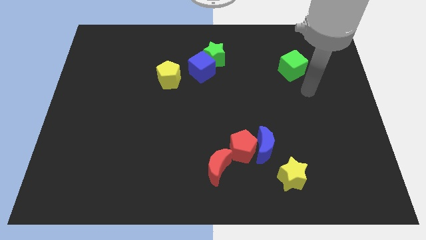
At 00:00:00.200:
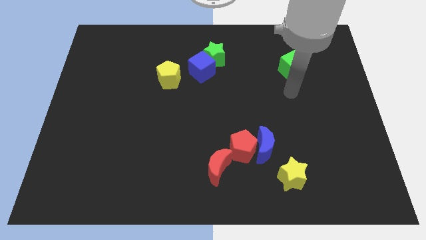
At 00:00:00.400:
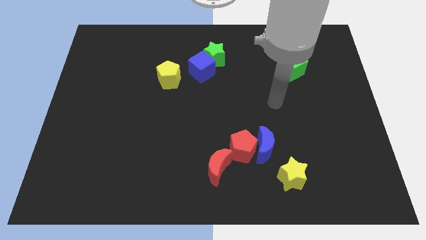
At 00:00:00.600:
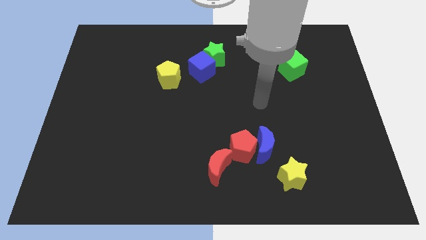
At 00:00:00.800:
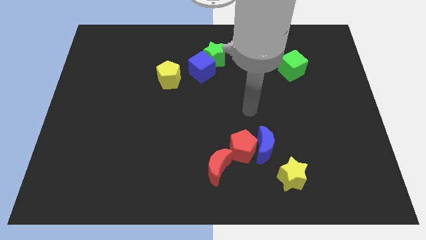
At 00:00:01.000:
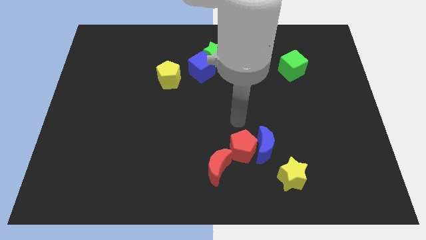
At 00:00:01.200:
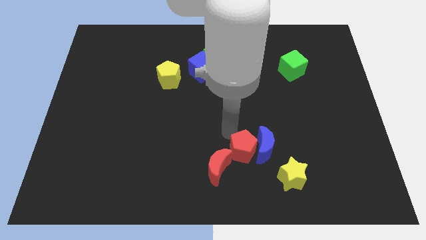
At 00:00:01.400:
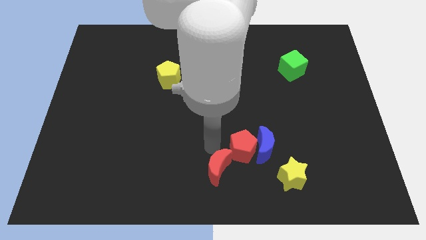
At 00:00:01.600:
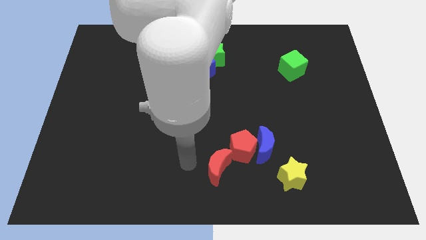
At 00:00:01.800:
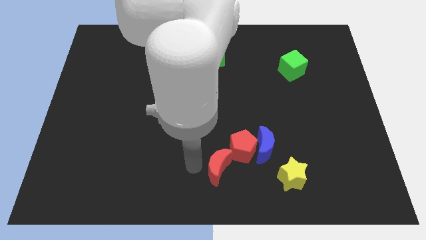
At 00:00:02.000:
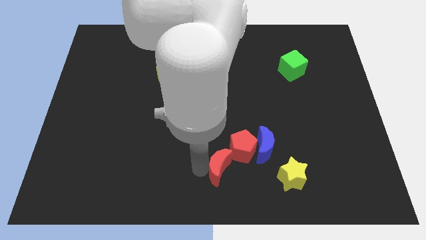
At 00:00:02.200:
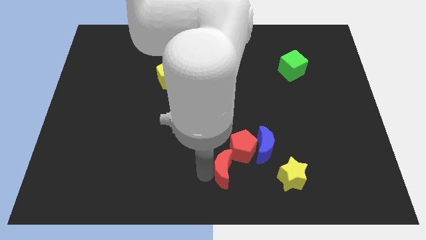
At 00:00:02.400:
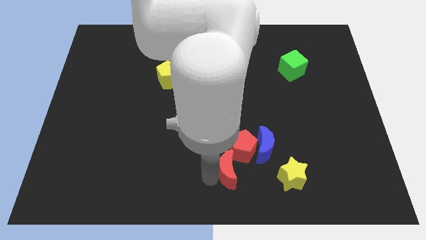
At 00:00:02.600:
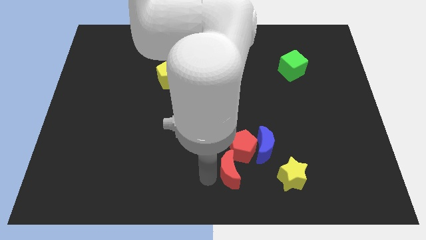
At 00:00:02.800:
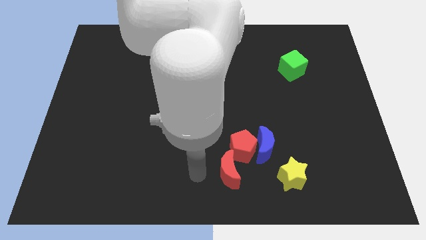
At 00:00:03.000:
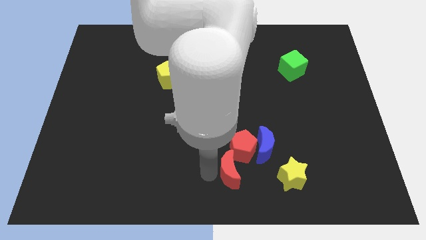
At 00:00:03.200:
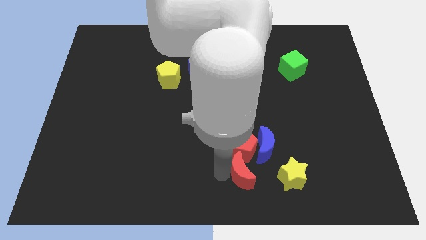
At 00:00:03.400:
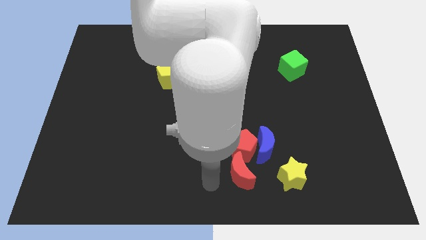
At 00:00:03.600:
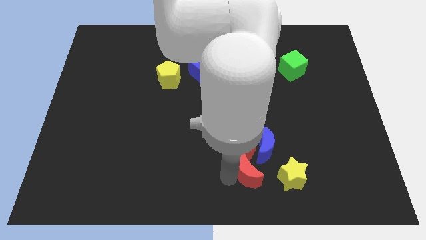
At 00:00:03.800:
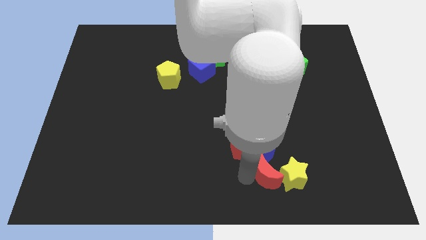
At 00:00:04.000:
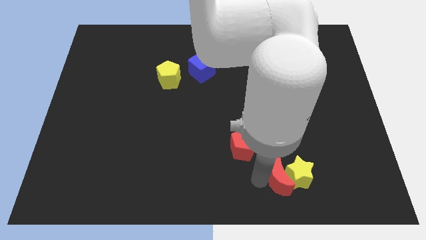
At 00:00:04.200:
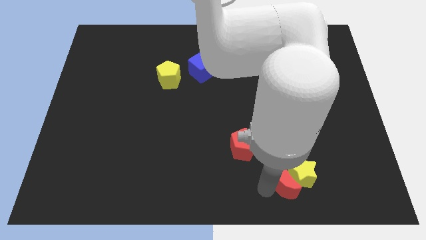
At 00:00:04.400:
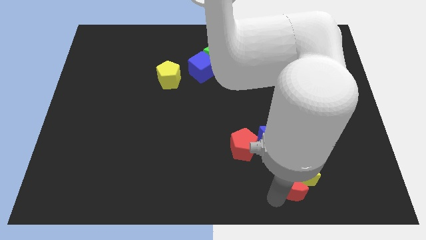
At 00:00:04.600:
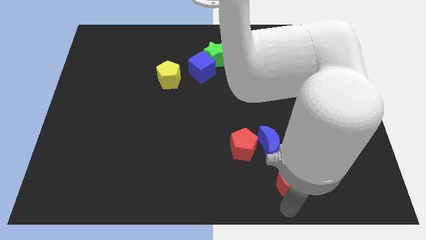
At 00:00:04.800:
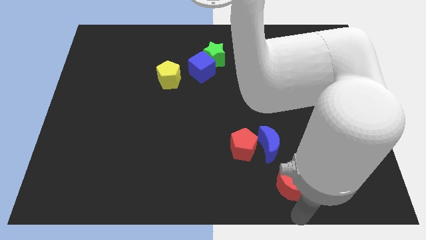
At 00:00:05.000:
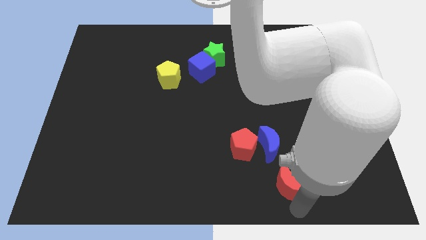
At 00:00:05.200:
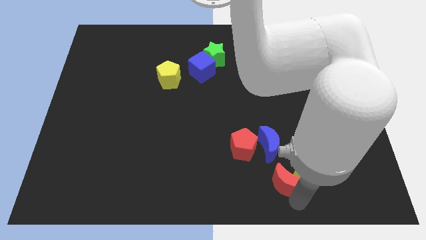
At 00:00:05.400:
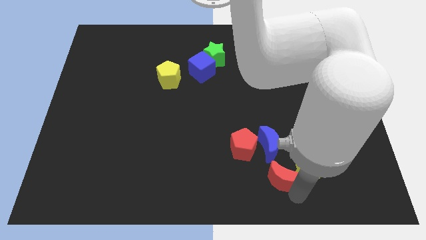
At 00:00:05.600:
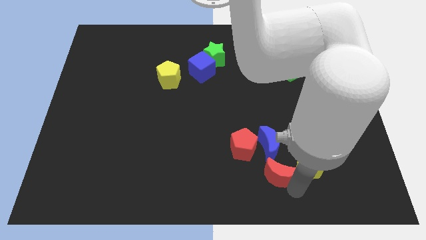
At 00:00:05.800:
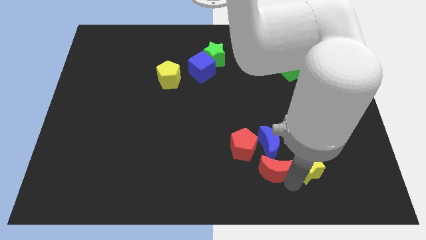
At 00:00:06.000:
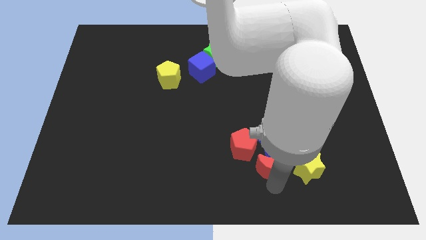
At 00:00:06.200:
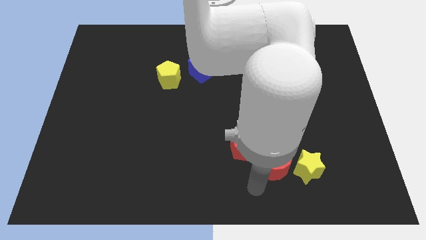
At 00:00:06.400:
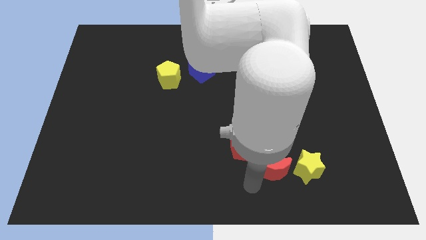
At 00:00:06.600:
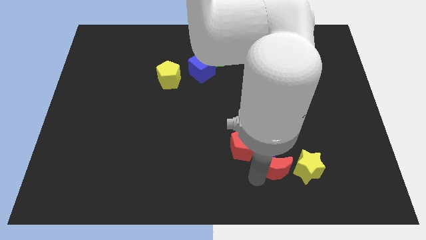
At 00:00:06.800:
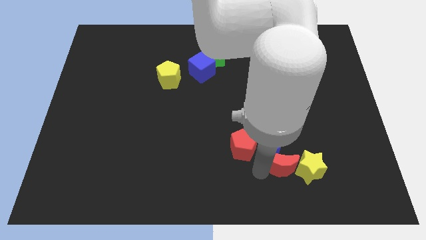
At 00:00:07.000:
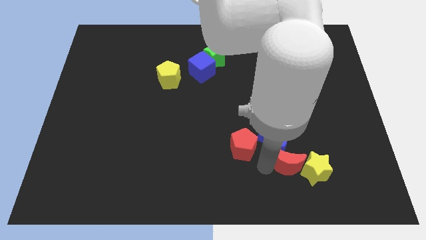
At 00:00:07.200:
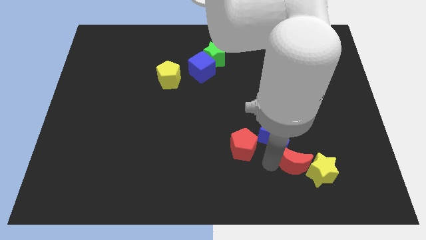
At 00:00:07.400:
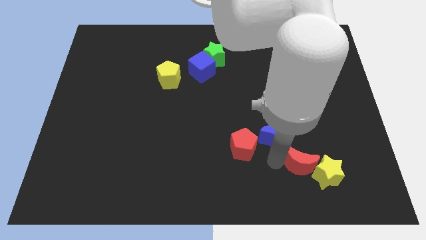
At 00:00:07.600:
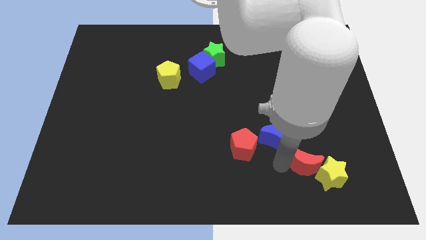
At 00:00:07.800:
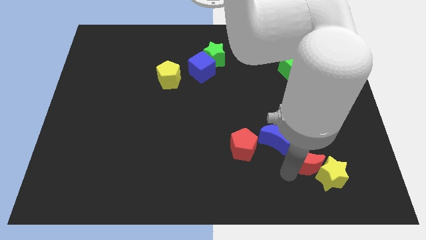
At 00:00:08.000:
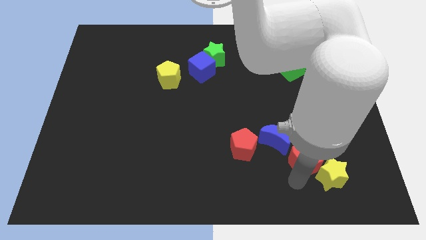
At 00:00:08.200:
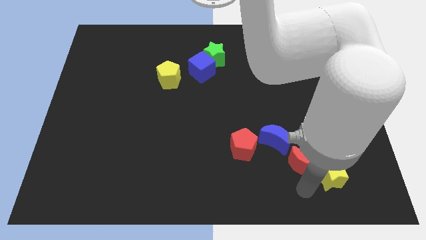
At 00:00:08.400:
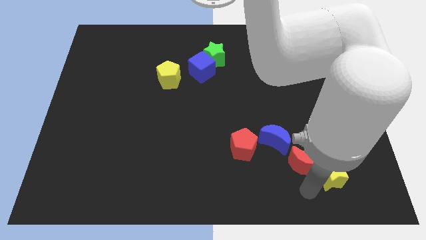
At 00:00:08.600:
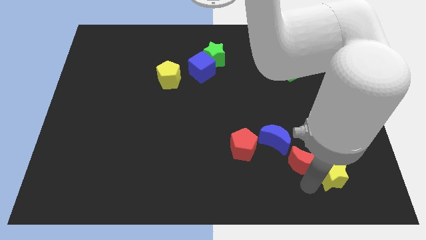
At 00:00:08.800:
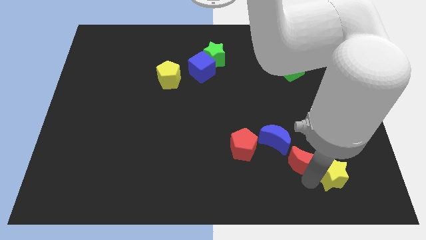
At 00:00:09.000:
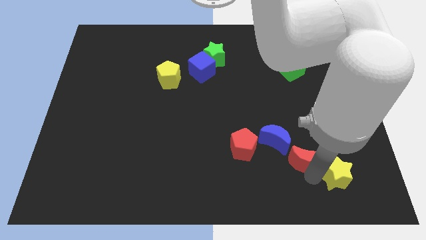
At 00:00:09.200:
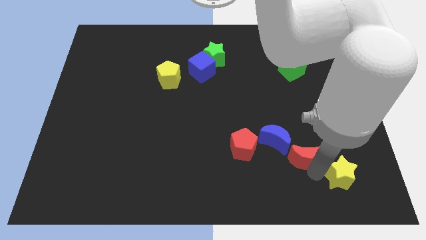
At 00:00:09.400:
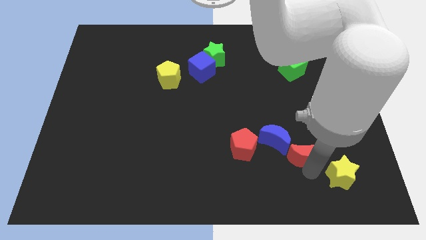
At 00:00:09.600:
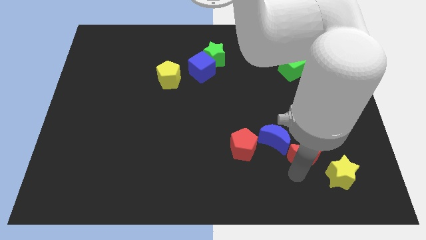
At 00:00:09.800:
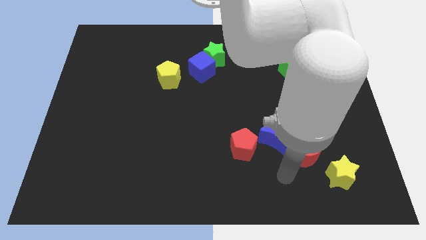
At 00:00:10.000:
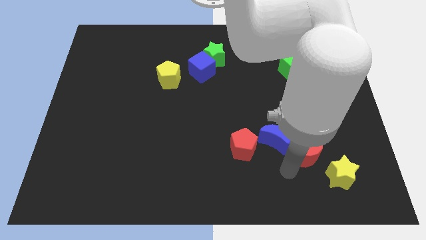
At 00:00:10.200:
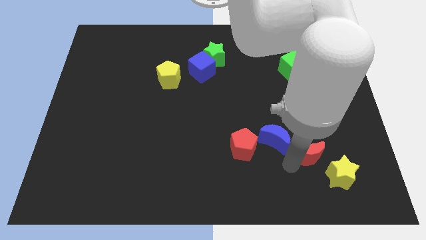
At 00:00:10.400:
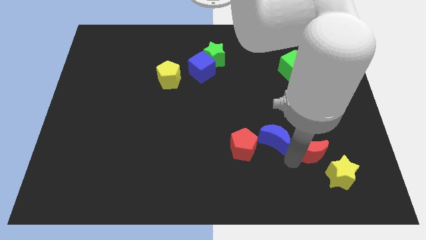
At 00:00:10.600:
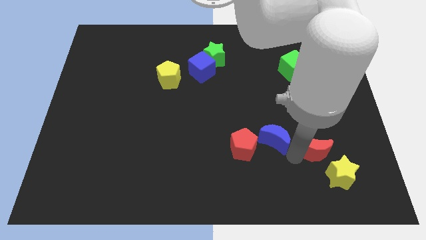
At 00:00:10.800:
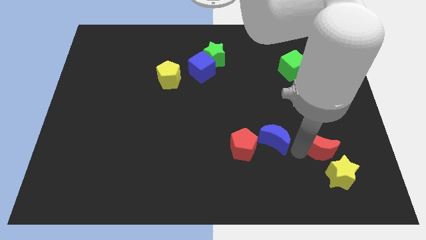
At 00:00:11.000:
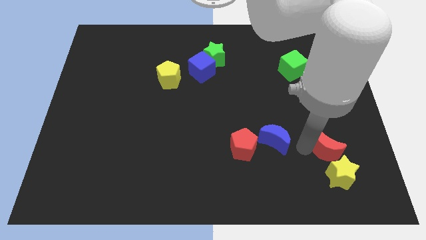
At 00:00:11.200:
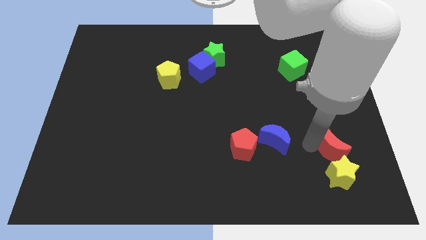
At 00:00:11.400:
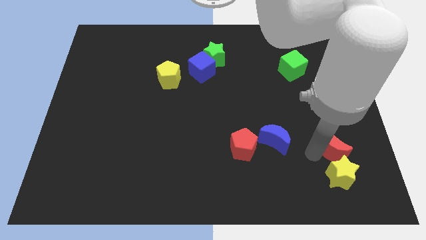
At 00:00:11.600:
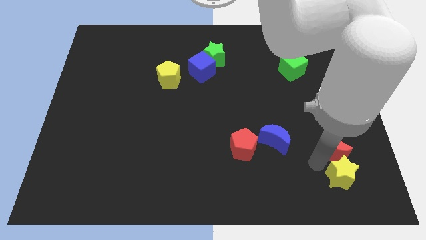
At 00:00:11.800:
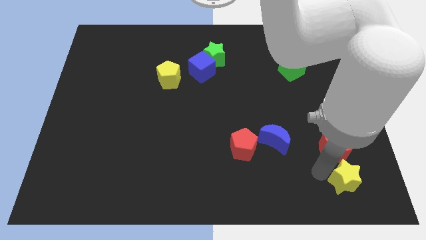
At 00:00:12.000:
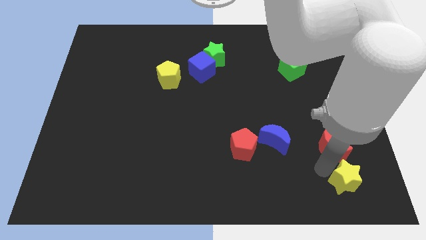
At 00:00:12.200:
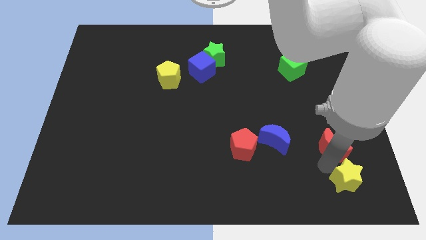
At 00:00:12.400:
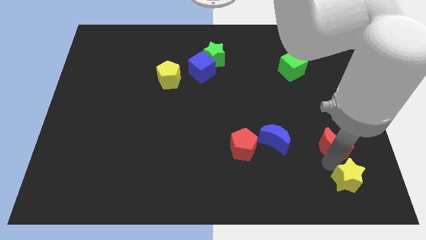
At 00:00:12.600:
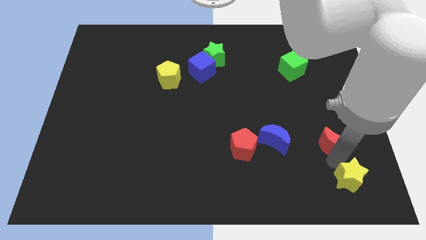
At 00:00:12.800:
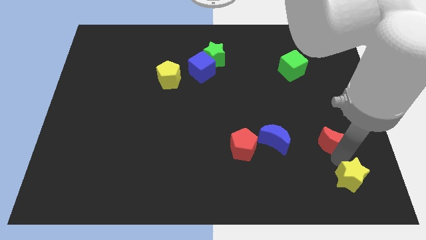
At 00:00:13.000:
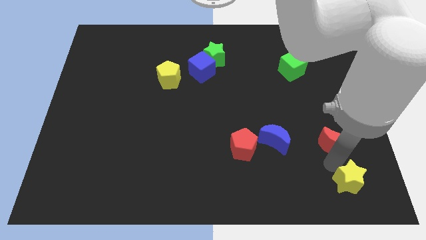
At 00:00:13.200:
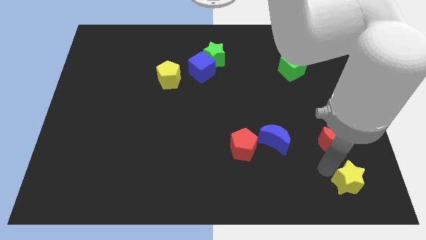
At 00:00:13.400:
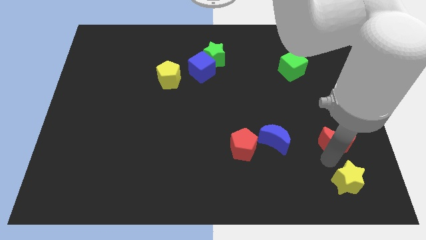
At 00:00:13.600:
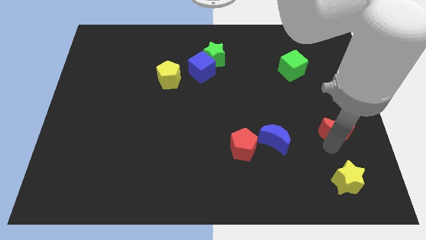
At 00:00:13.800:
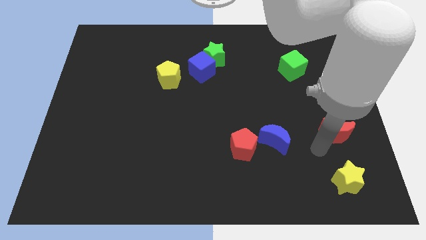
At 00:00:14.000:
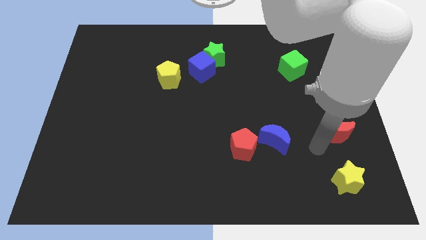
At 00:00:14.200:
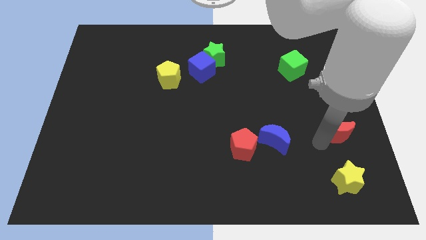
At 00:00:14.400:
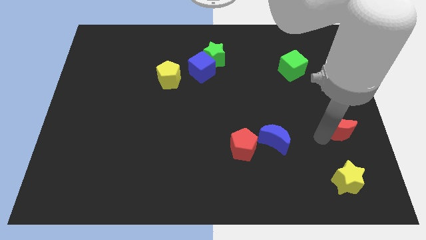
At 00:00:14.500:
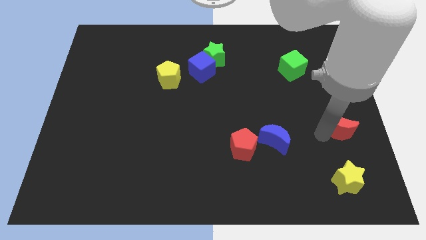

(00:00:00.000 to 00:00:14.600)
put the red moon to the right side
